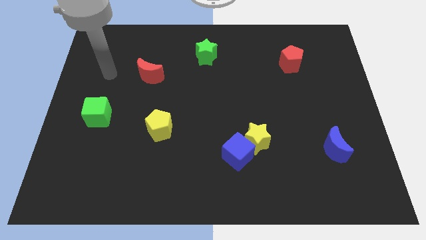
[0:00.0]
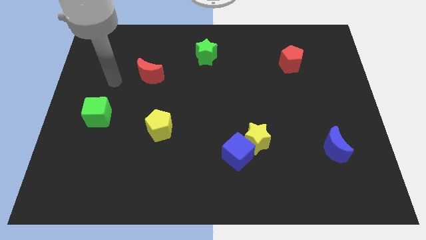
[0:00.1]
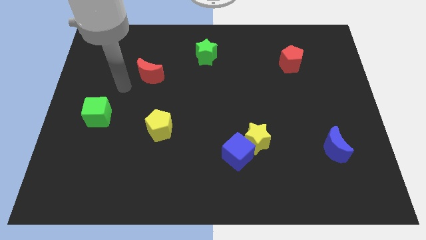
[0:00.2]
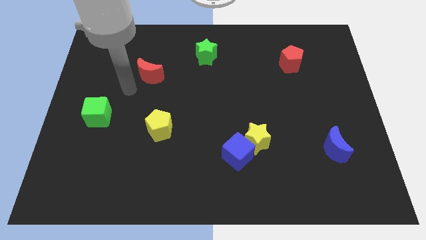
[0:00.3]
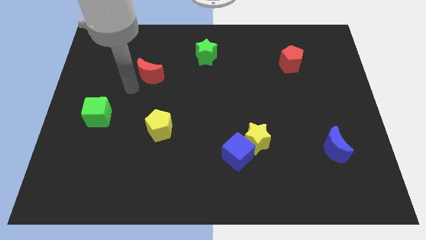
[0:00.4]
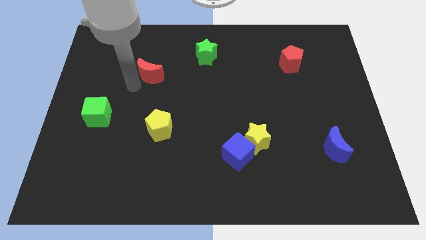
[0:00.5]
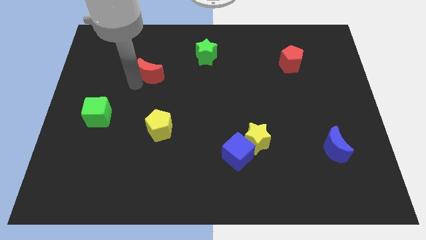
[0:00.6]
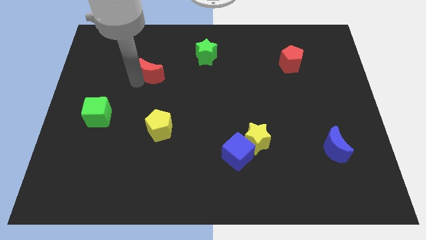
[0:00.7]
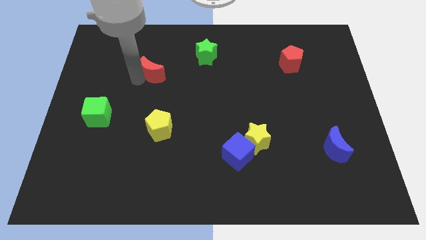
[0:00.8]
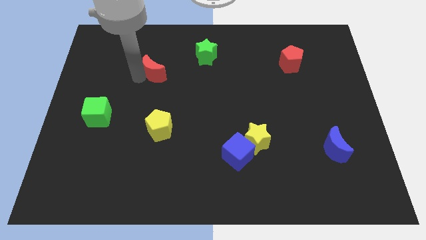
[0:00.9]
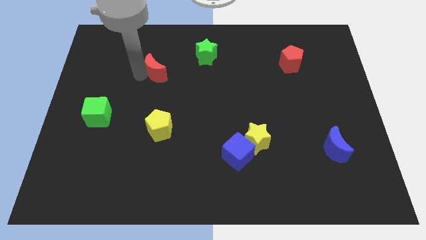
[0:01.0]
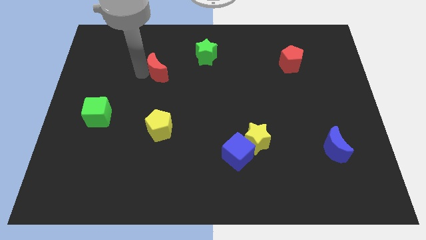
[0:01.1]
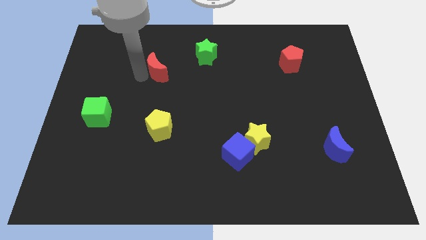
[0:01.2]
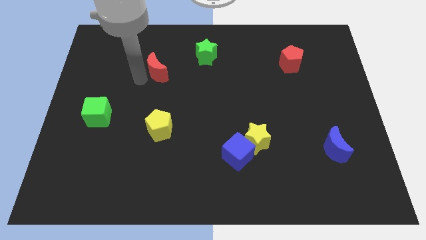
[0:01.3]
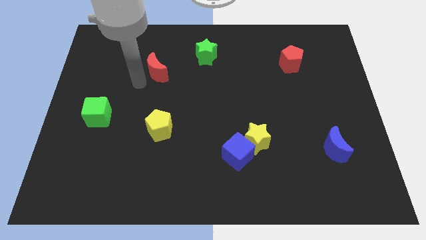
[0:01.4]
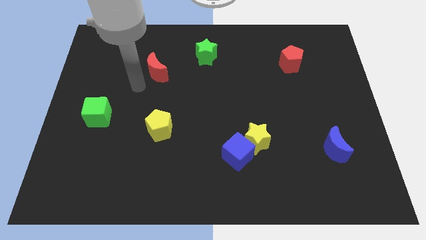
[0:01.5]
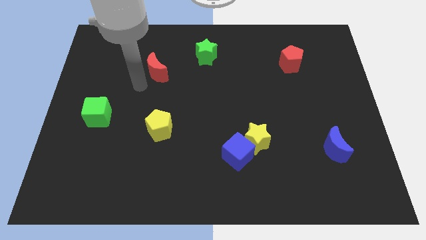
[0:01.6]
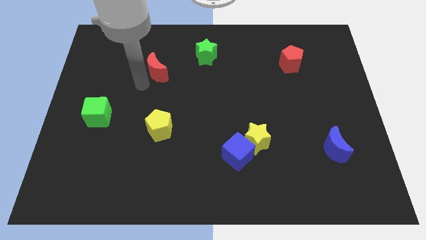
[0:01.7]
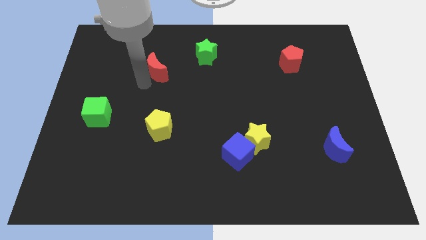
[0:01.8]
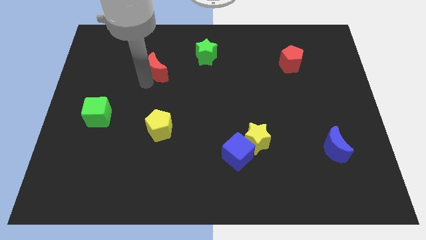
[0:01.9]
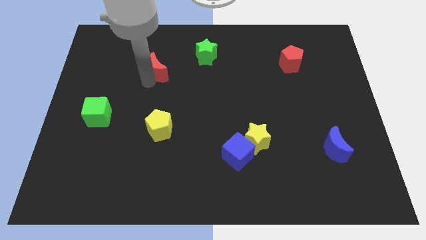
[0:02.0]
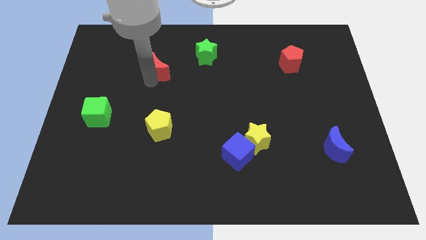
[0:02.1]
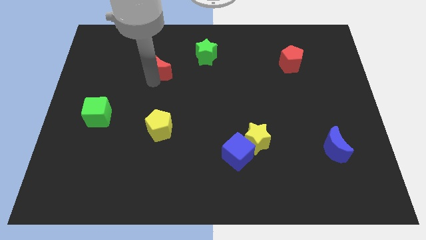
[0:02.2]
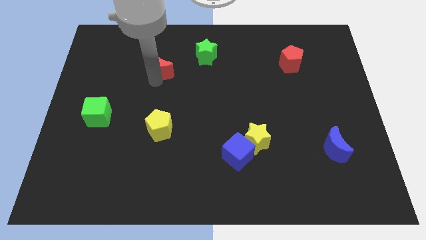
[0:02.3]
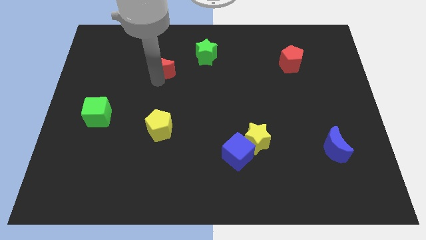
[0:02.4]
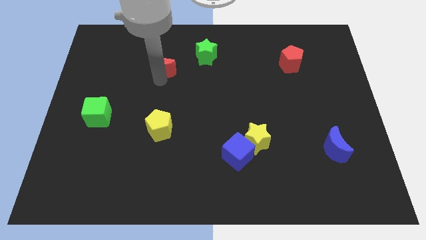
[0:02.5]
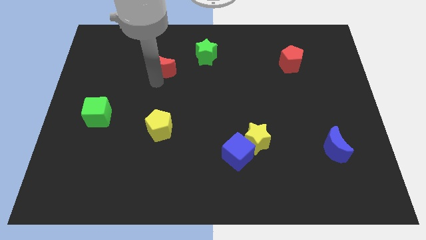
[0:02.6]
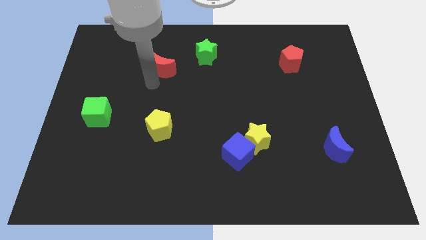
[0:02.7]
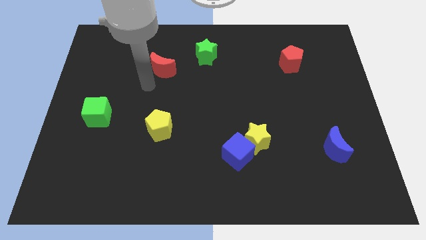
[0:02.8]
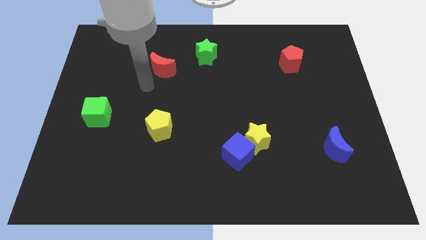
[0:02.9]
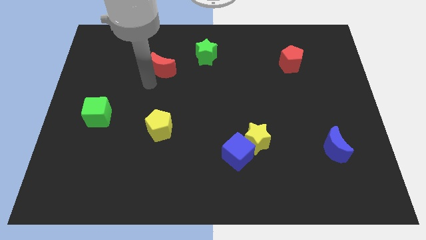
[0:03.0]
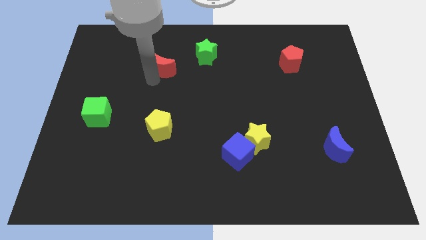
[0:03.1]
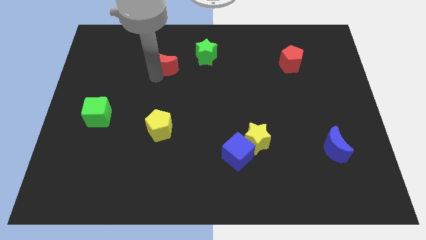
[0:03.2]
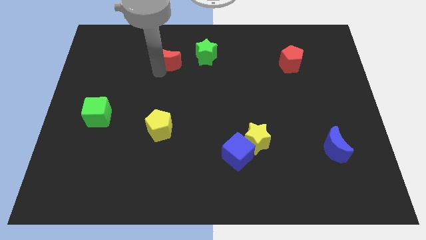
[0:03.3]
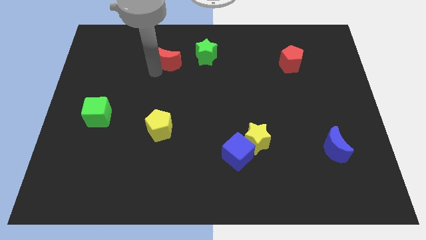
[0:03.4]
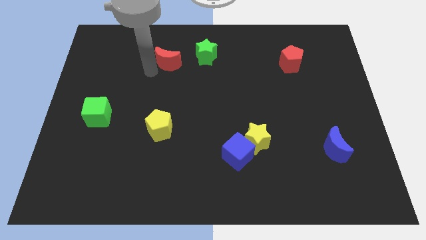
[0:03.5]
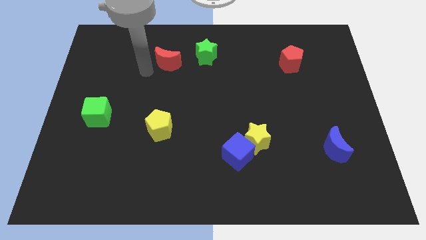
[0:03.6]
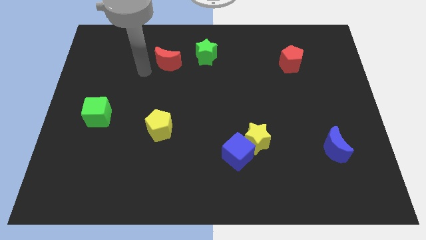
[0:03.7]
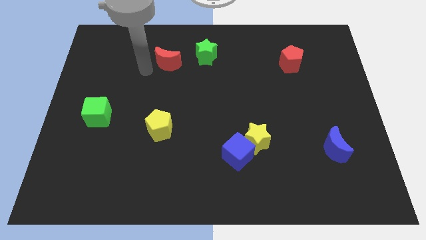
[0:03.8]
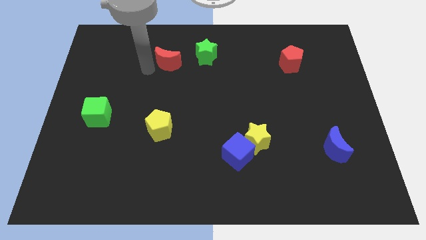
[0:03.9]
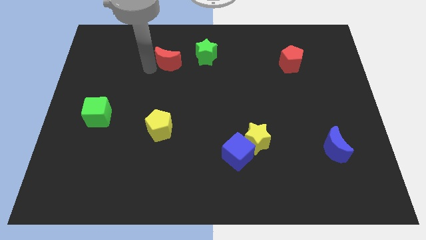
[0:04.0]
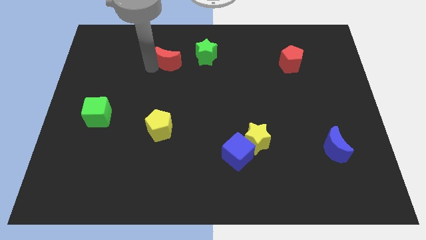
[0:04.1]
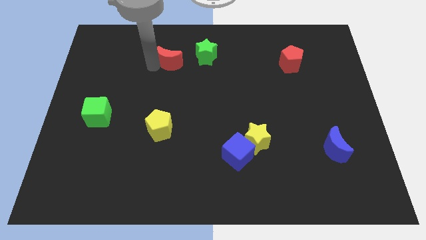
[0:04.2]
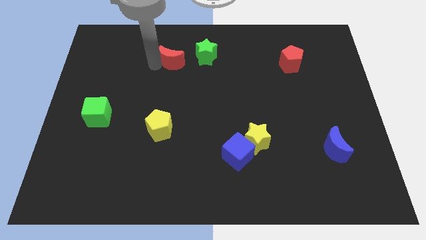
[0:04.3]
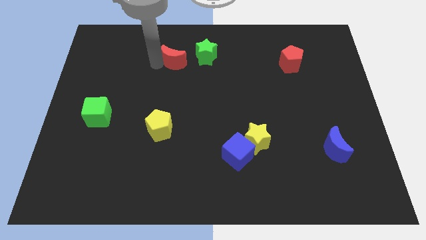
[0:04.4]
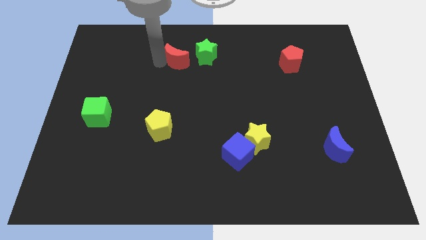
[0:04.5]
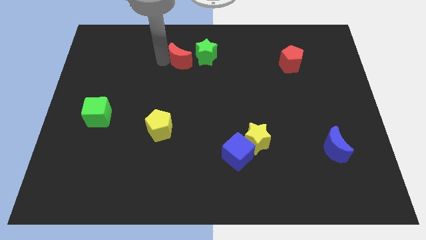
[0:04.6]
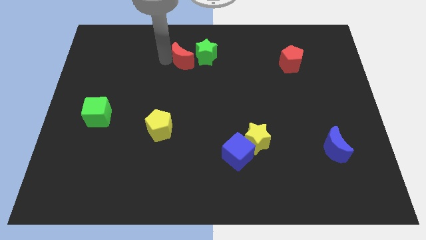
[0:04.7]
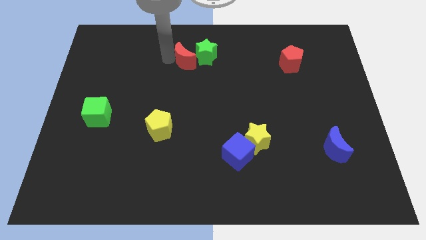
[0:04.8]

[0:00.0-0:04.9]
put the red moon to the green star

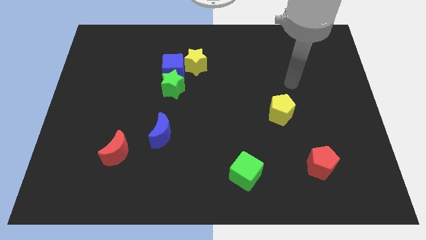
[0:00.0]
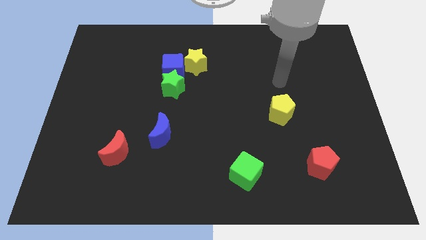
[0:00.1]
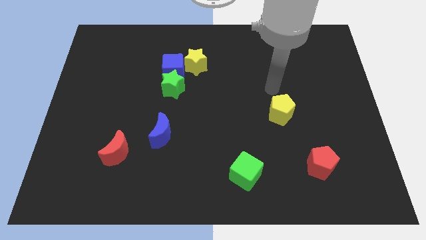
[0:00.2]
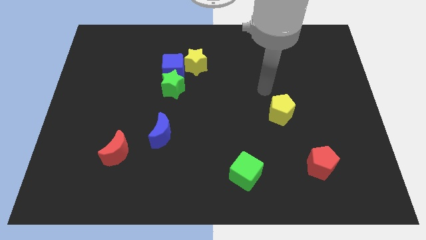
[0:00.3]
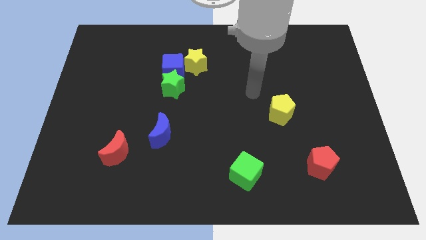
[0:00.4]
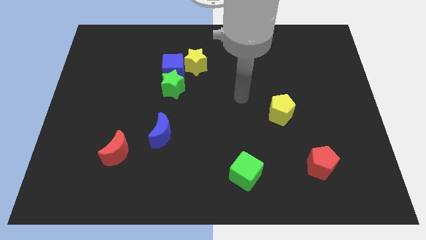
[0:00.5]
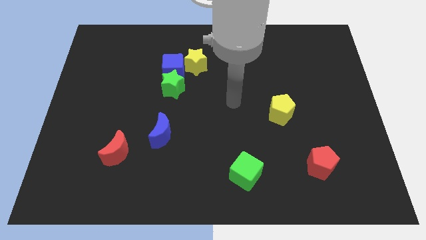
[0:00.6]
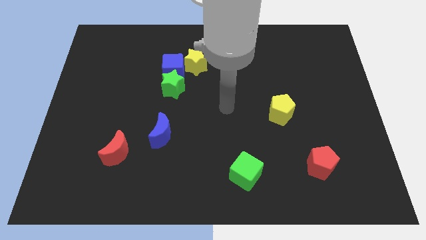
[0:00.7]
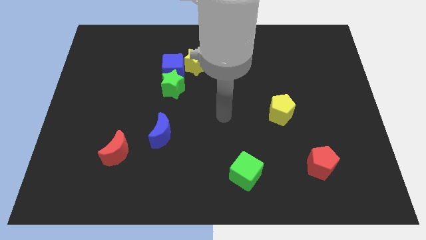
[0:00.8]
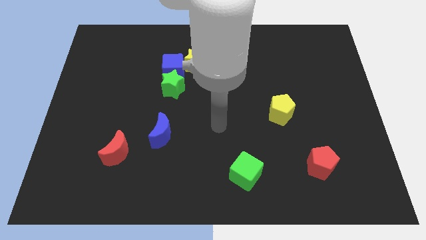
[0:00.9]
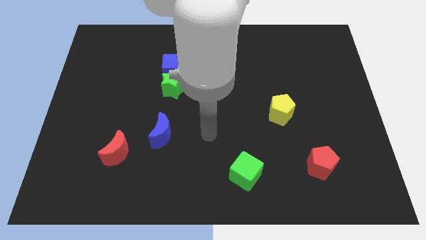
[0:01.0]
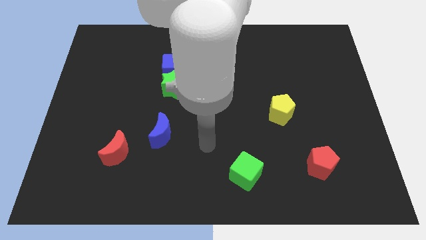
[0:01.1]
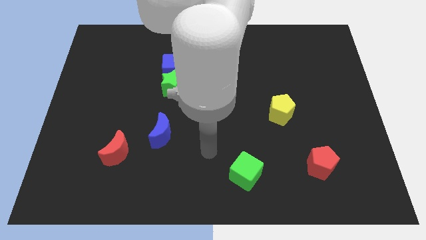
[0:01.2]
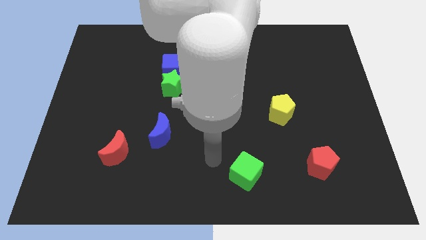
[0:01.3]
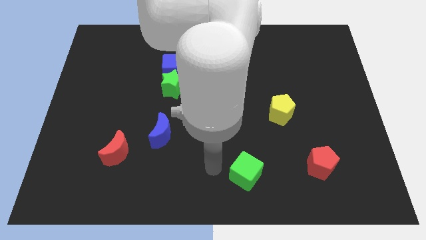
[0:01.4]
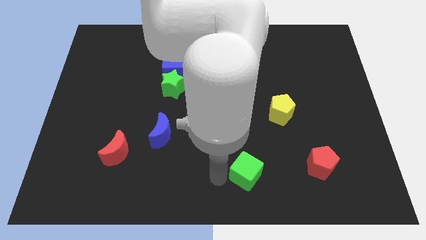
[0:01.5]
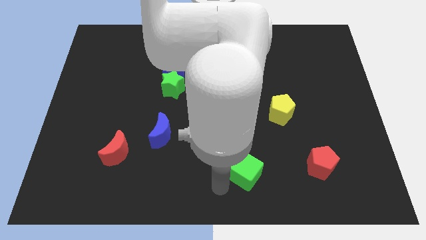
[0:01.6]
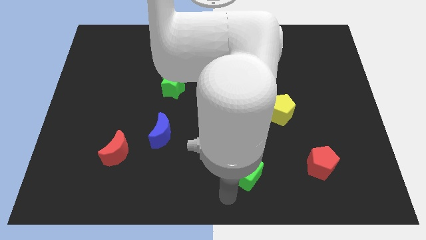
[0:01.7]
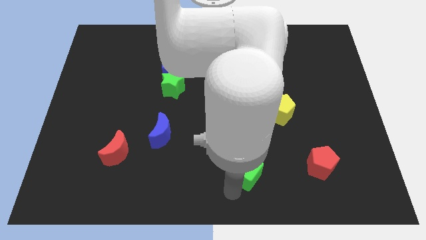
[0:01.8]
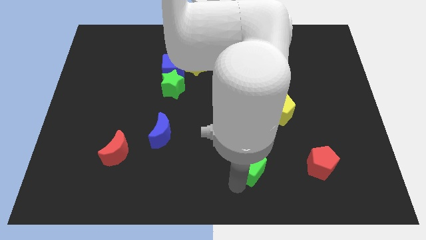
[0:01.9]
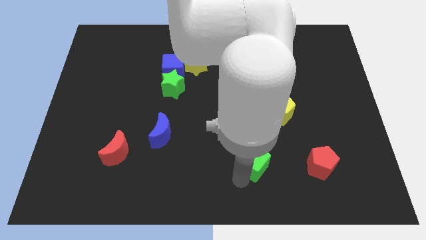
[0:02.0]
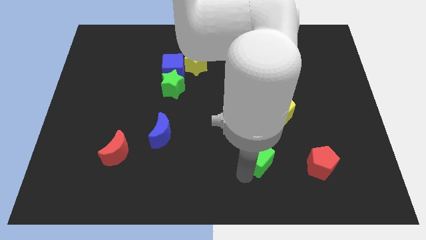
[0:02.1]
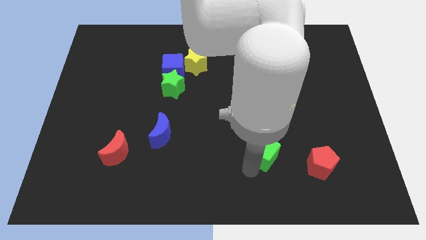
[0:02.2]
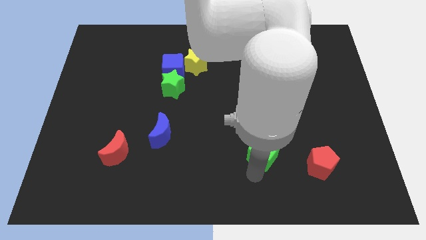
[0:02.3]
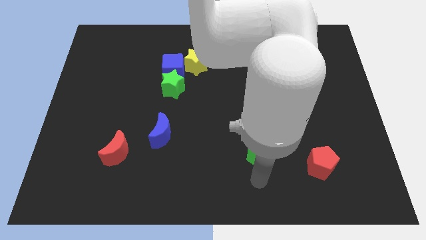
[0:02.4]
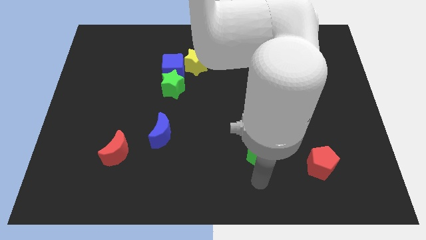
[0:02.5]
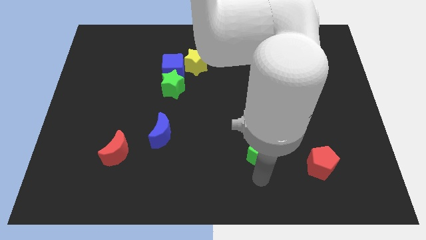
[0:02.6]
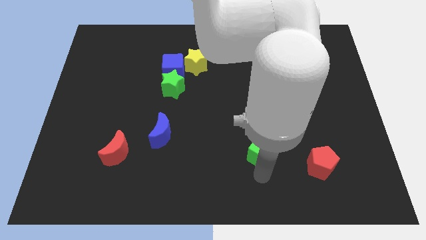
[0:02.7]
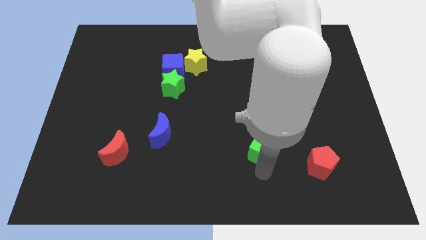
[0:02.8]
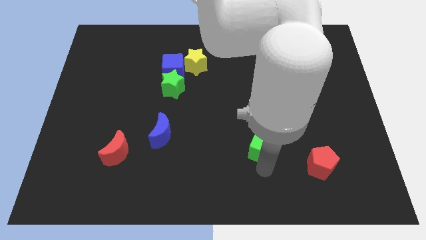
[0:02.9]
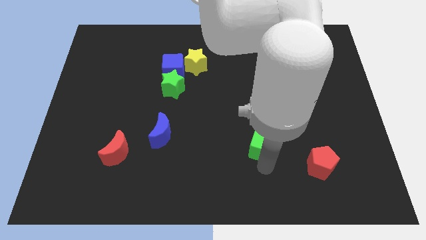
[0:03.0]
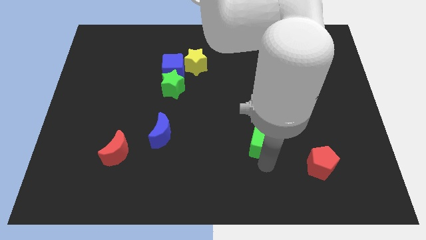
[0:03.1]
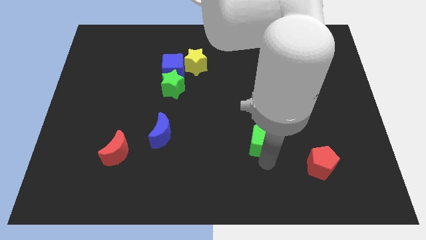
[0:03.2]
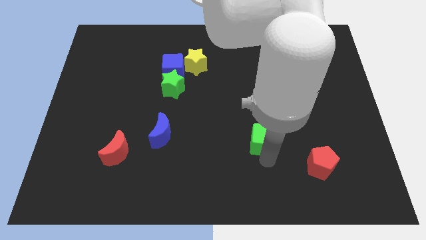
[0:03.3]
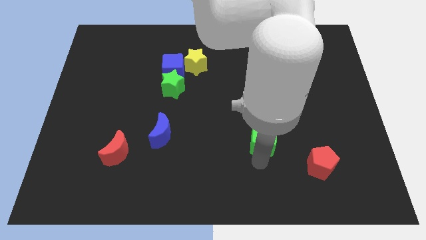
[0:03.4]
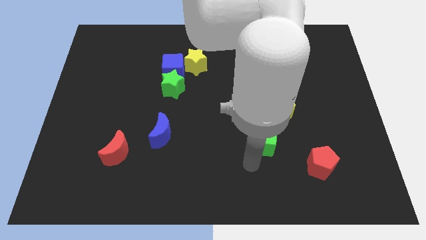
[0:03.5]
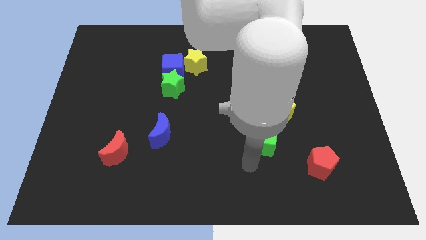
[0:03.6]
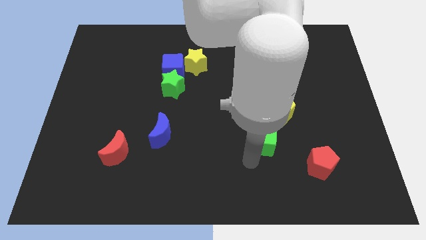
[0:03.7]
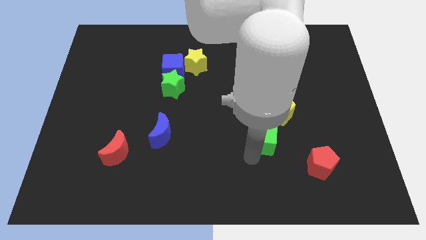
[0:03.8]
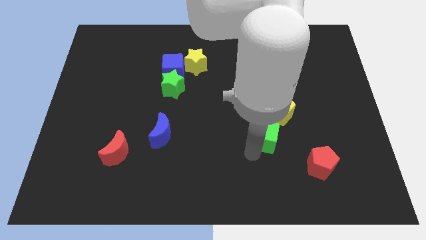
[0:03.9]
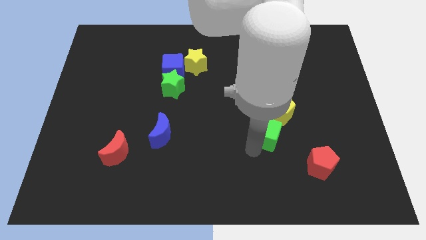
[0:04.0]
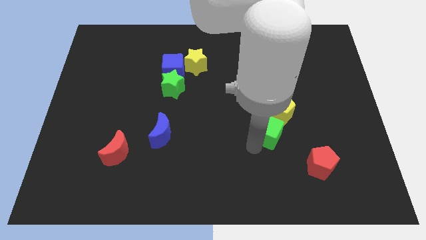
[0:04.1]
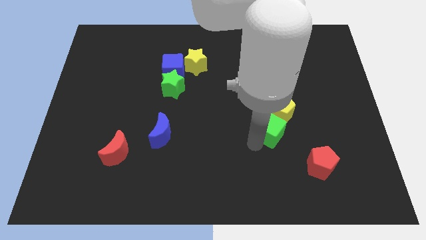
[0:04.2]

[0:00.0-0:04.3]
slide the green cube towards the yellow pentagon
